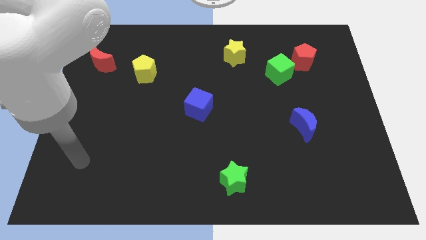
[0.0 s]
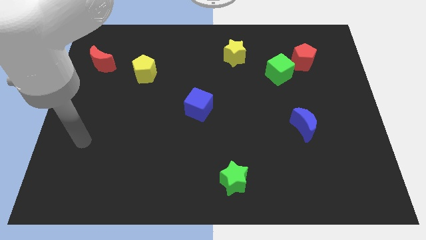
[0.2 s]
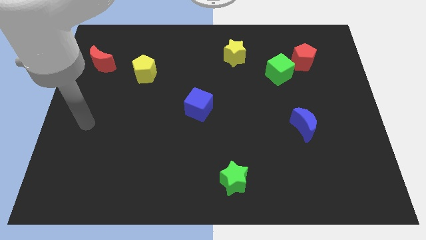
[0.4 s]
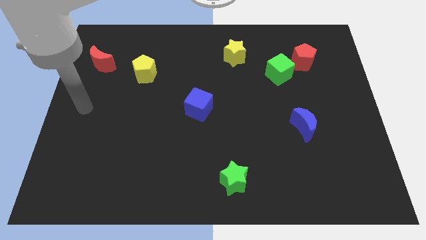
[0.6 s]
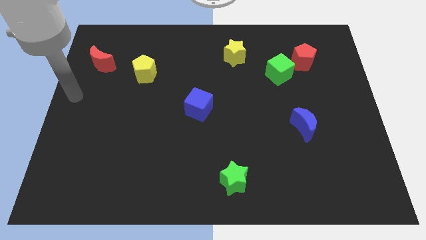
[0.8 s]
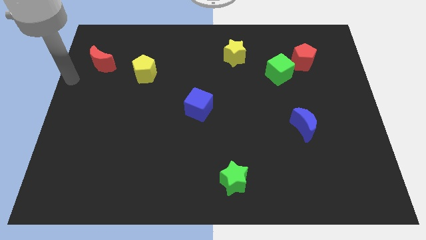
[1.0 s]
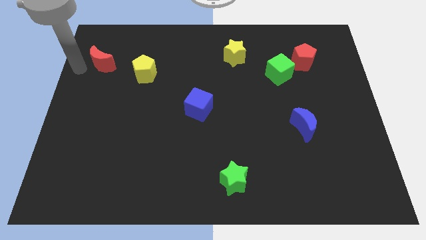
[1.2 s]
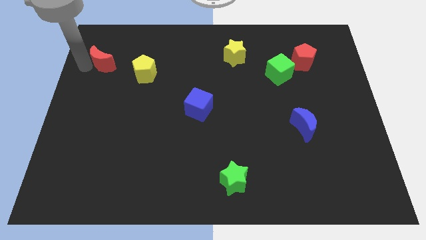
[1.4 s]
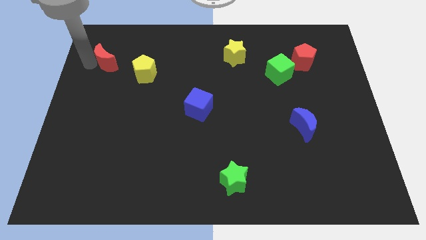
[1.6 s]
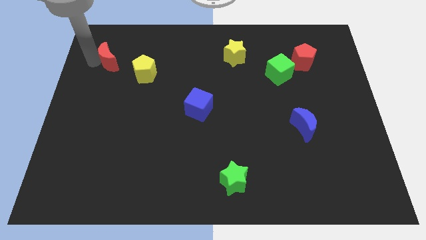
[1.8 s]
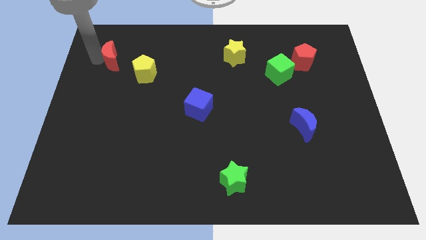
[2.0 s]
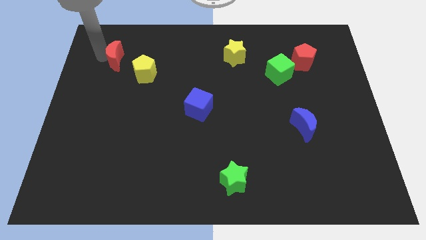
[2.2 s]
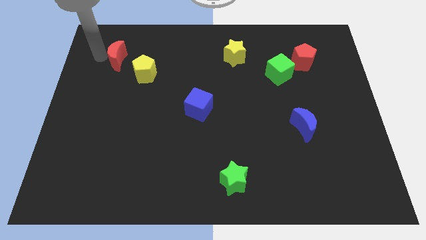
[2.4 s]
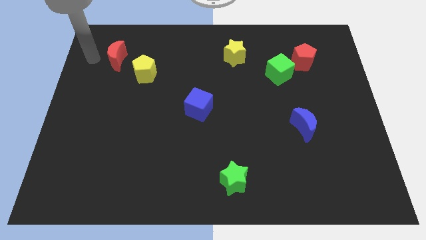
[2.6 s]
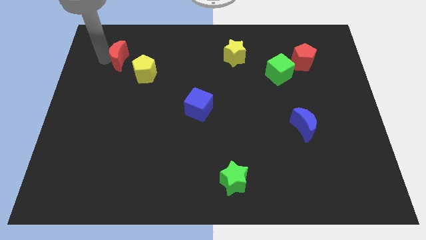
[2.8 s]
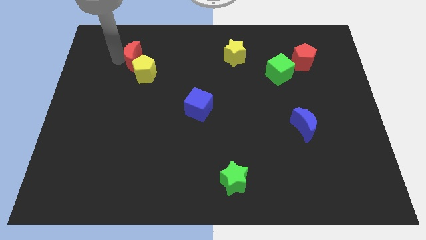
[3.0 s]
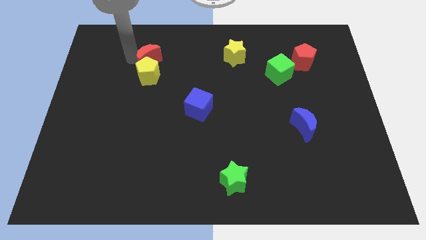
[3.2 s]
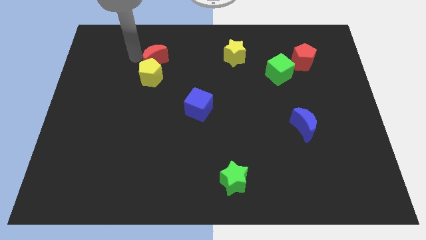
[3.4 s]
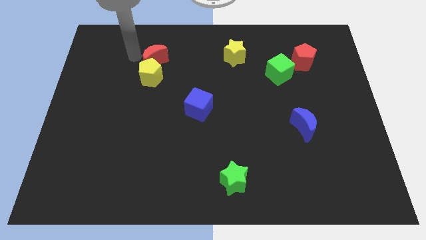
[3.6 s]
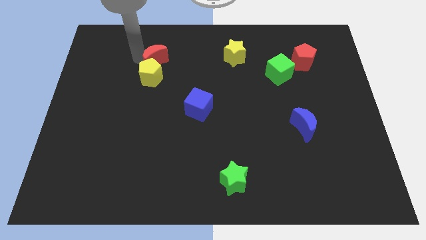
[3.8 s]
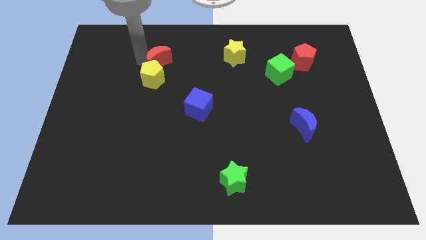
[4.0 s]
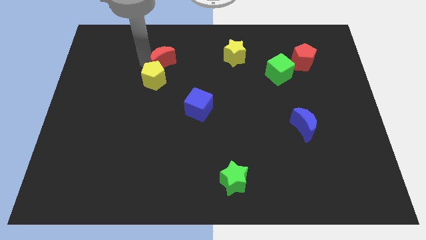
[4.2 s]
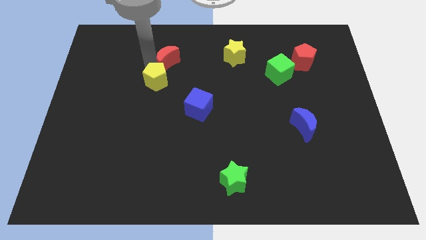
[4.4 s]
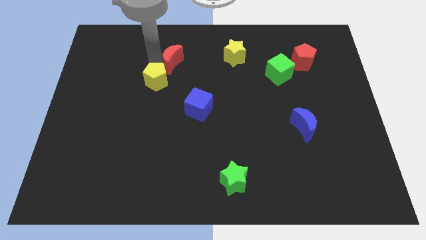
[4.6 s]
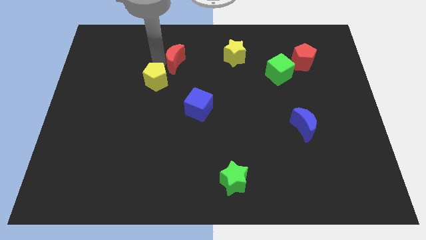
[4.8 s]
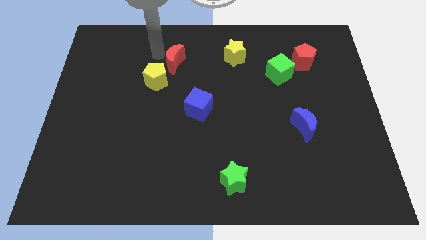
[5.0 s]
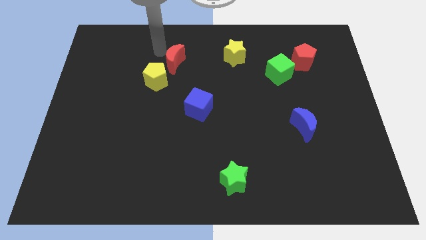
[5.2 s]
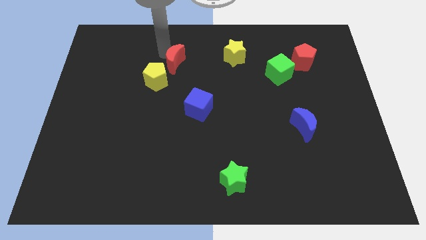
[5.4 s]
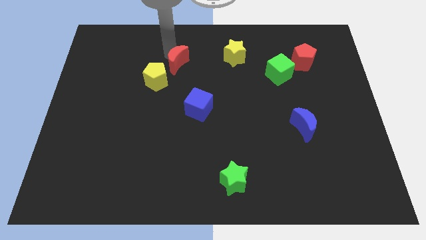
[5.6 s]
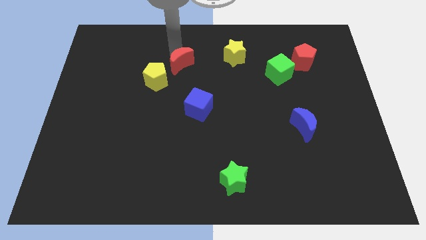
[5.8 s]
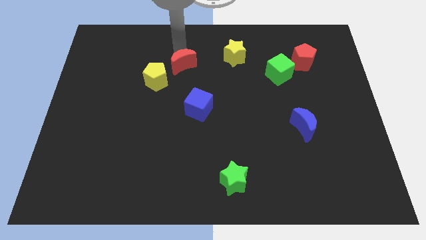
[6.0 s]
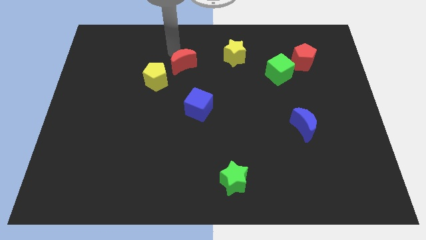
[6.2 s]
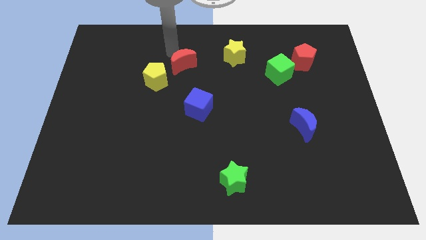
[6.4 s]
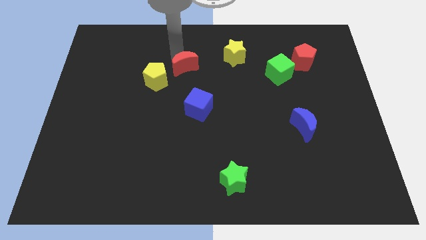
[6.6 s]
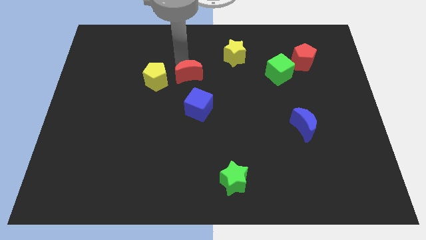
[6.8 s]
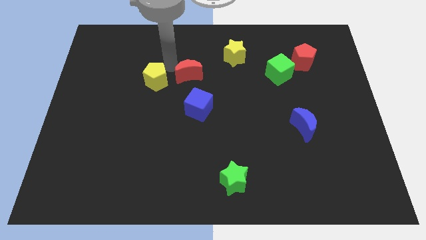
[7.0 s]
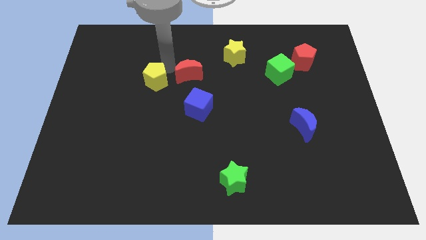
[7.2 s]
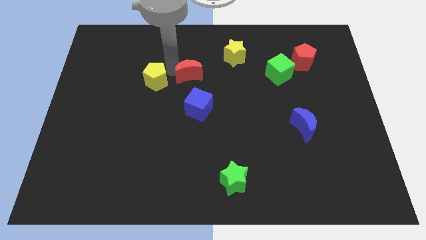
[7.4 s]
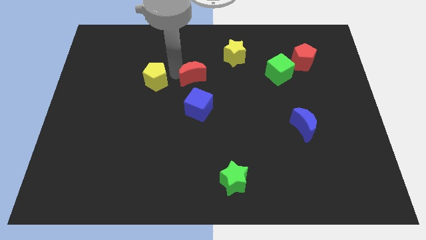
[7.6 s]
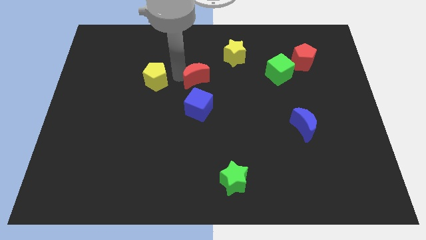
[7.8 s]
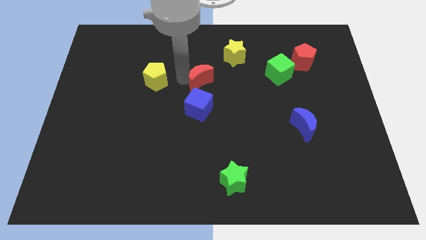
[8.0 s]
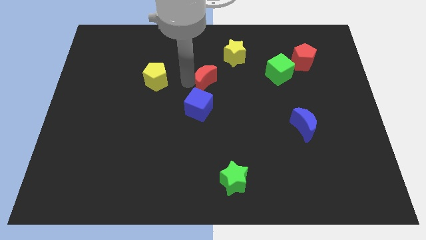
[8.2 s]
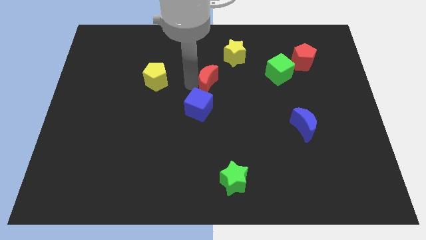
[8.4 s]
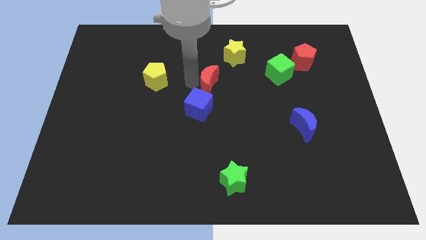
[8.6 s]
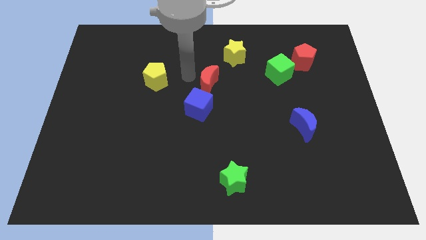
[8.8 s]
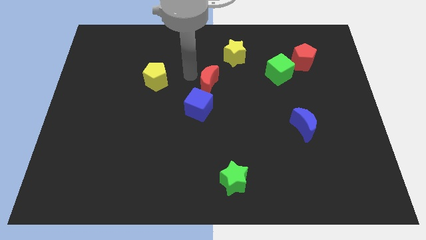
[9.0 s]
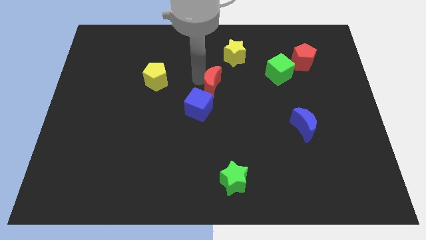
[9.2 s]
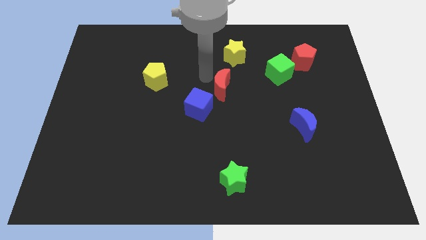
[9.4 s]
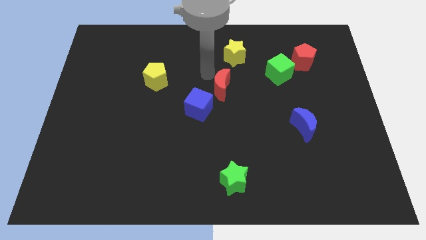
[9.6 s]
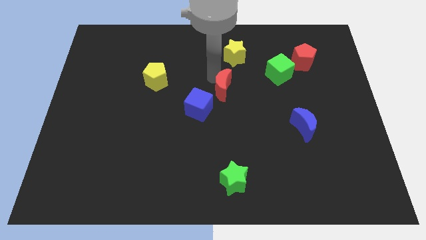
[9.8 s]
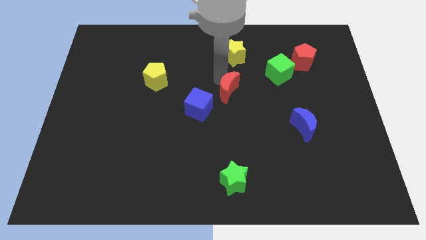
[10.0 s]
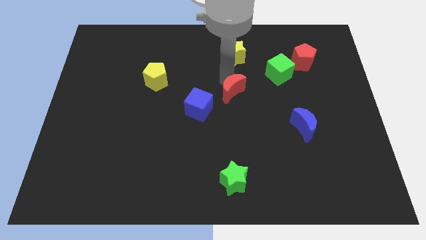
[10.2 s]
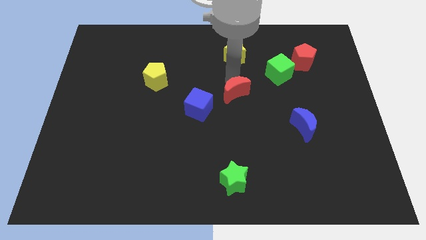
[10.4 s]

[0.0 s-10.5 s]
slide the red moon just right of the blue cube

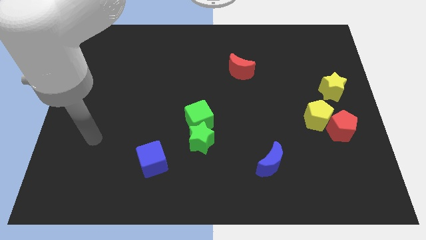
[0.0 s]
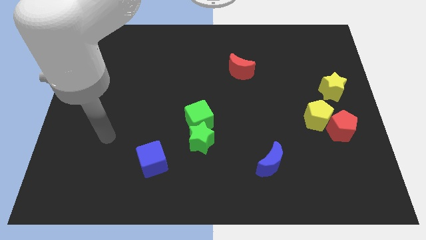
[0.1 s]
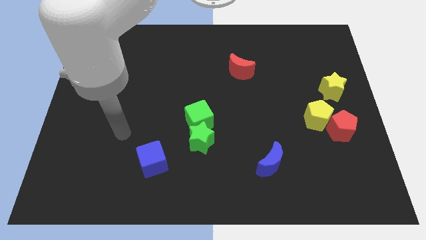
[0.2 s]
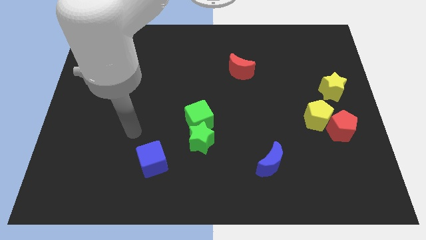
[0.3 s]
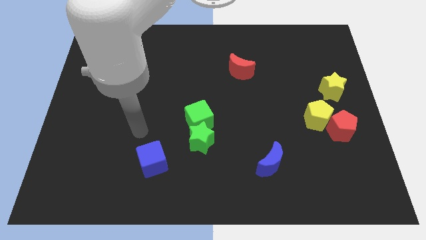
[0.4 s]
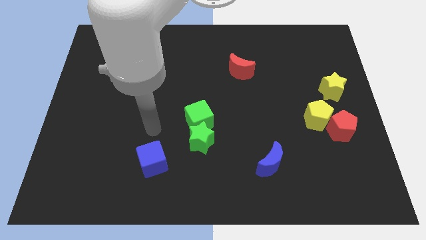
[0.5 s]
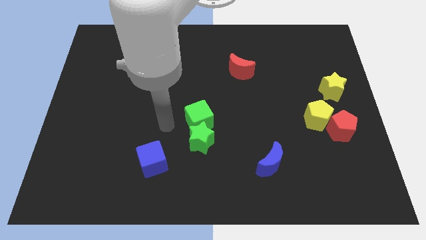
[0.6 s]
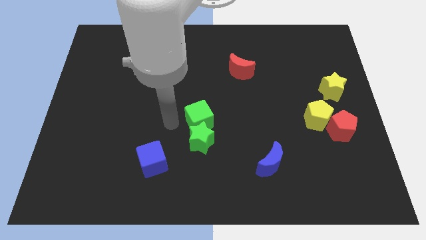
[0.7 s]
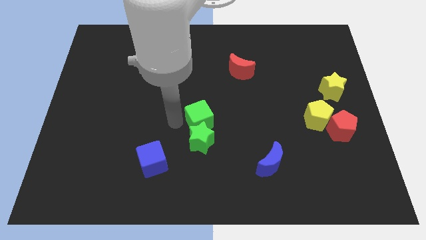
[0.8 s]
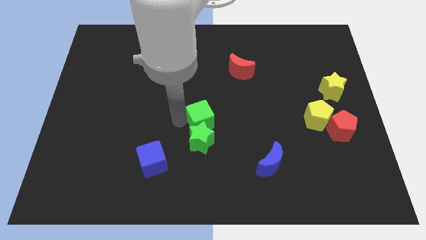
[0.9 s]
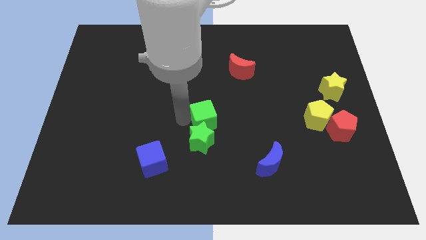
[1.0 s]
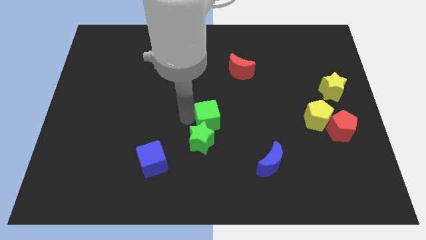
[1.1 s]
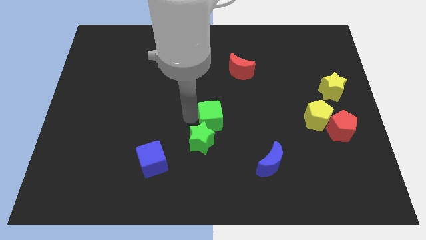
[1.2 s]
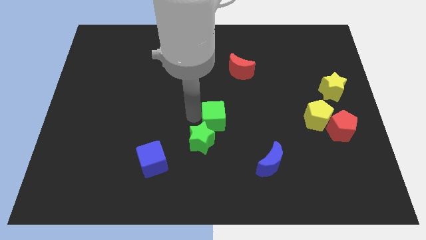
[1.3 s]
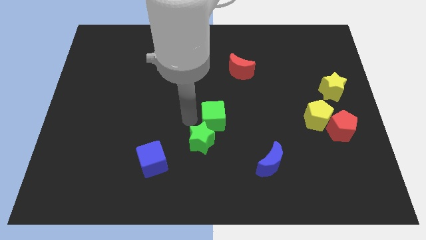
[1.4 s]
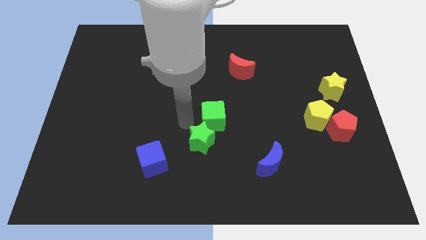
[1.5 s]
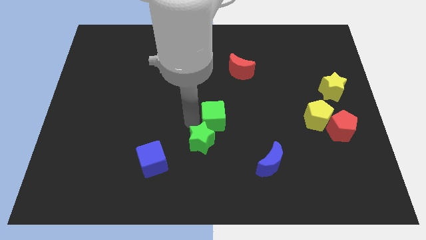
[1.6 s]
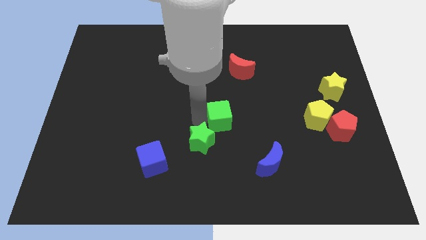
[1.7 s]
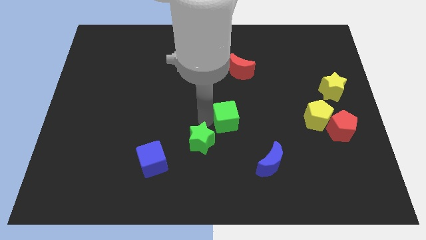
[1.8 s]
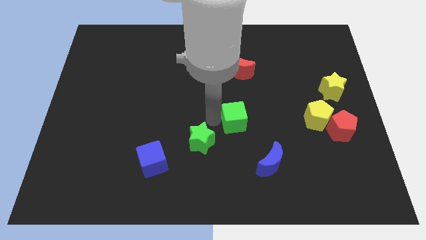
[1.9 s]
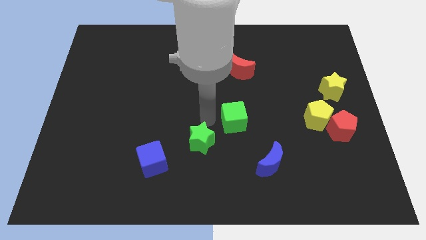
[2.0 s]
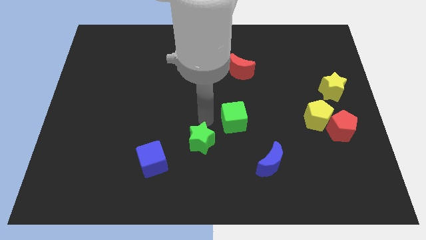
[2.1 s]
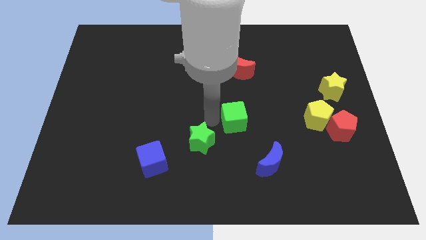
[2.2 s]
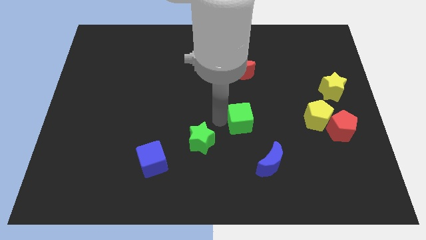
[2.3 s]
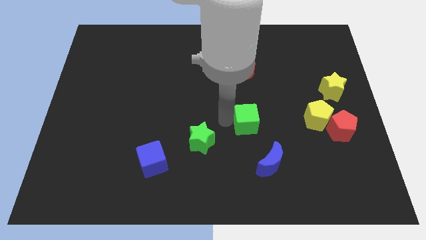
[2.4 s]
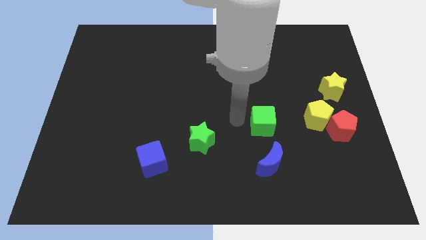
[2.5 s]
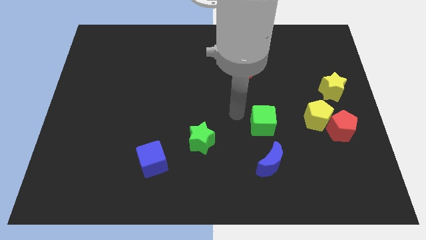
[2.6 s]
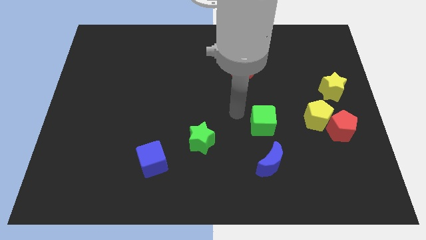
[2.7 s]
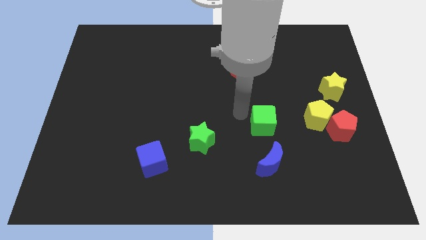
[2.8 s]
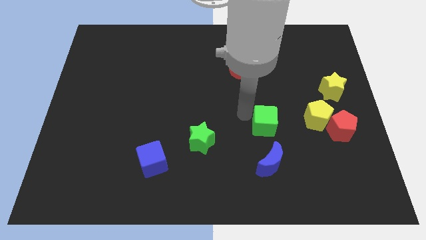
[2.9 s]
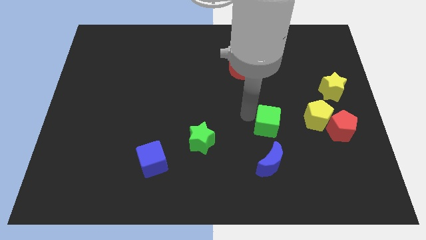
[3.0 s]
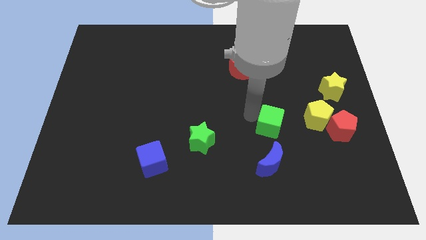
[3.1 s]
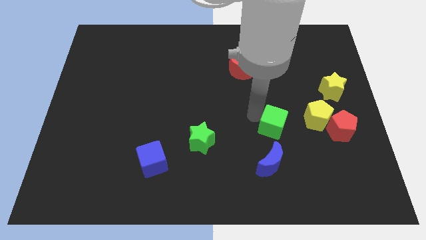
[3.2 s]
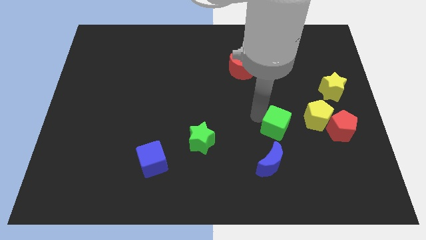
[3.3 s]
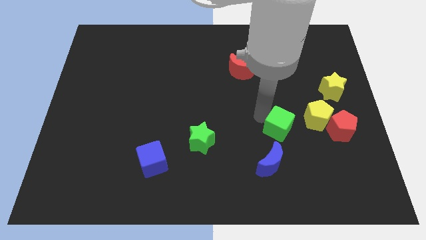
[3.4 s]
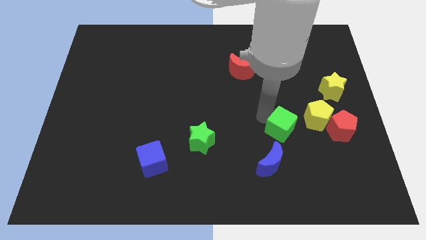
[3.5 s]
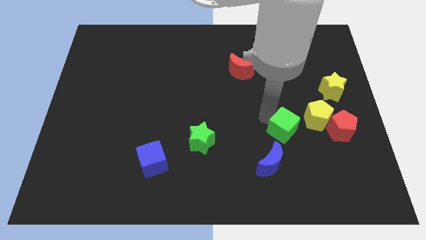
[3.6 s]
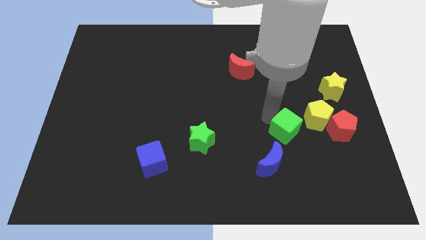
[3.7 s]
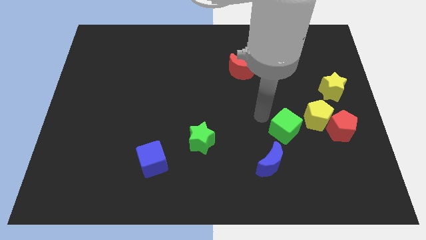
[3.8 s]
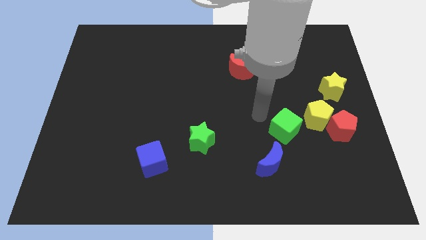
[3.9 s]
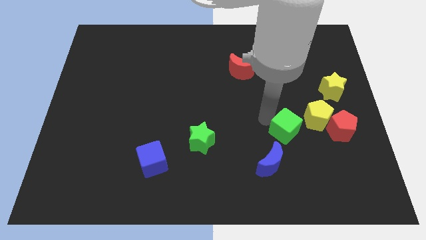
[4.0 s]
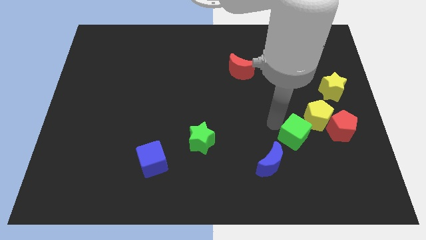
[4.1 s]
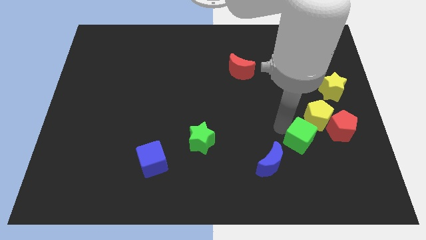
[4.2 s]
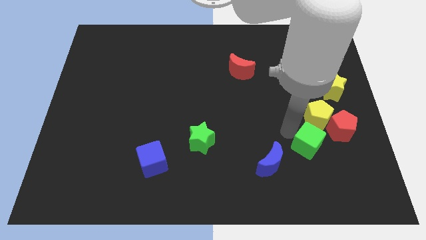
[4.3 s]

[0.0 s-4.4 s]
move the green cube to the bottom left side of the red pentagon
